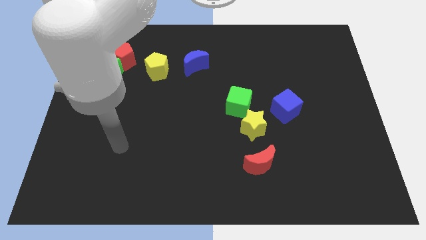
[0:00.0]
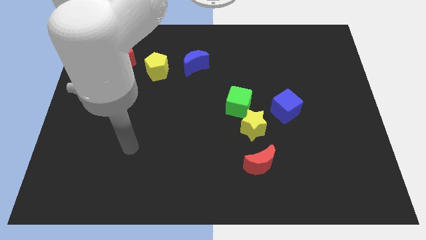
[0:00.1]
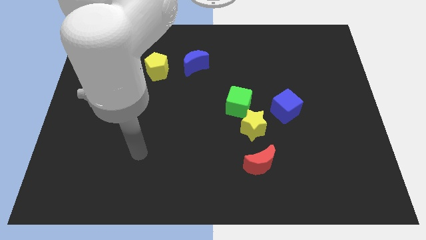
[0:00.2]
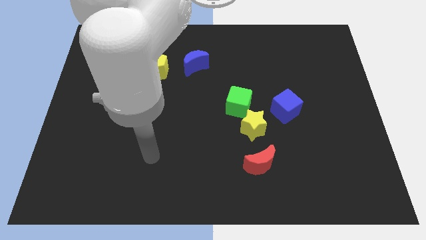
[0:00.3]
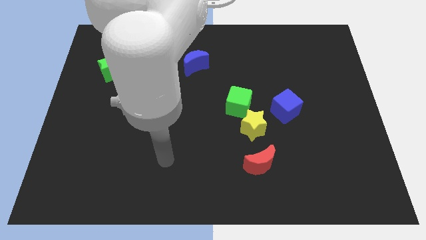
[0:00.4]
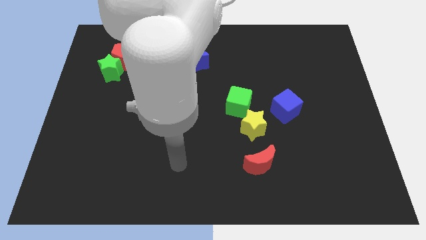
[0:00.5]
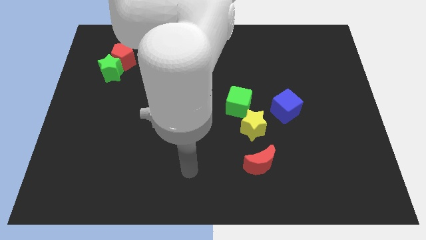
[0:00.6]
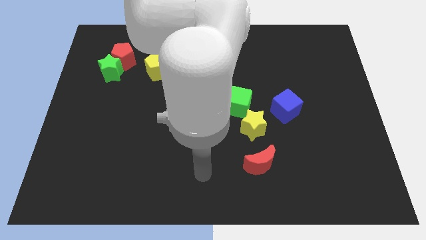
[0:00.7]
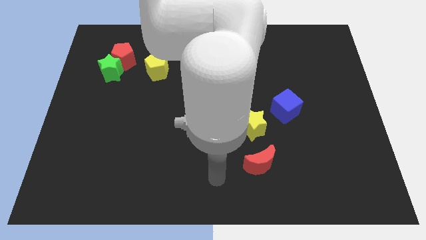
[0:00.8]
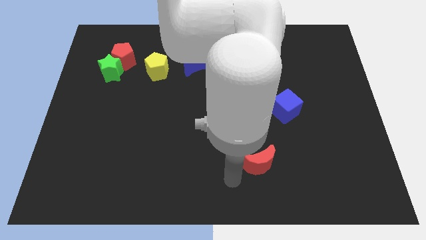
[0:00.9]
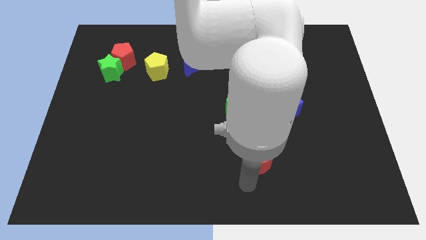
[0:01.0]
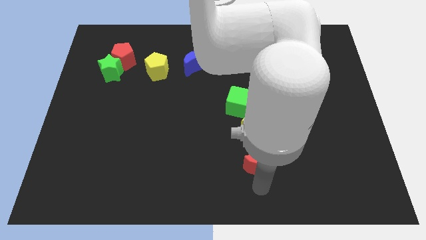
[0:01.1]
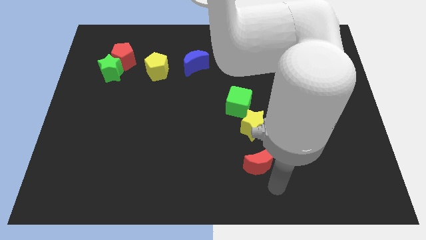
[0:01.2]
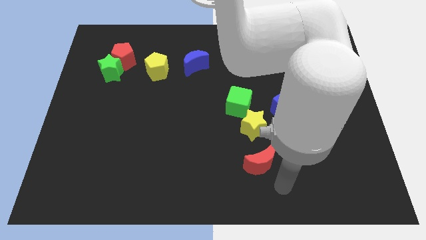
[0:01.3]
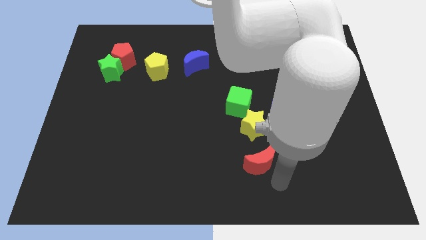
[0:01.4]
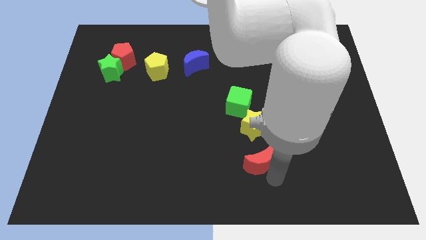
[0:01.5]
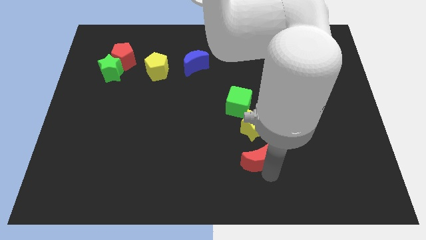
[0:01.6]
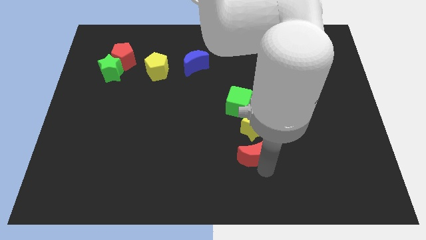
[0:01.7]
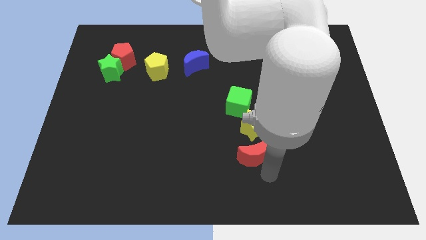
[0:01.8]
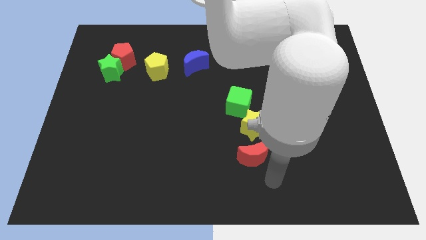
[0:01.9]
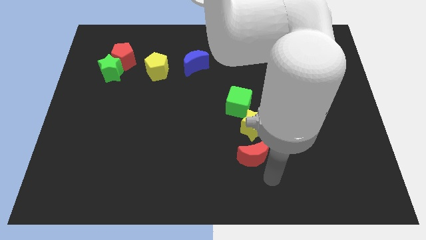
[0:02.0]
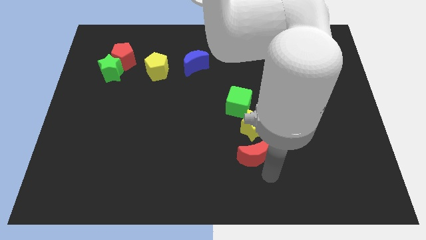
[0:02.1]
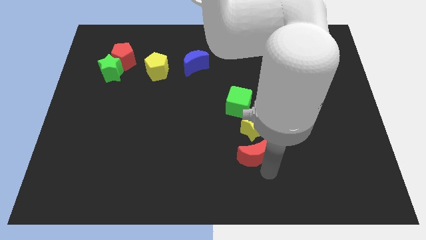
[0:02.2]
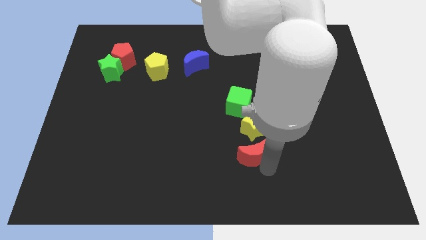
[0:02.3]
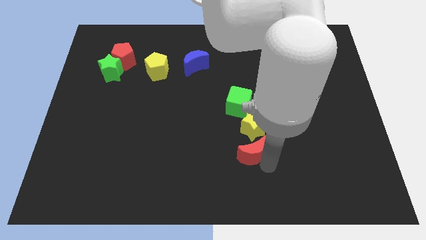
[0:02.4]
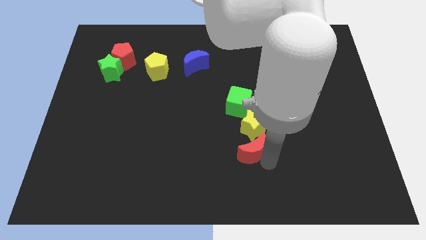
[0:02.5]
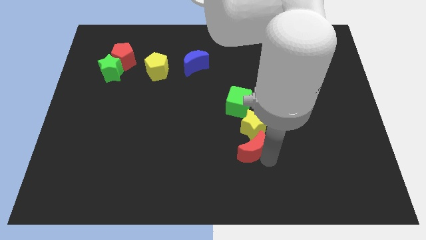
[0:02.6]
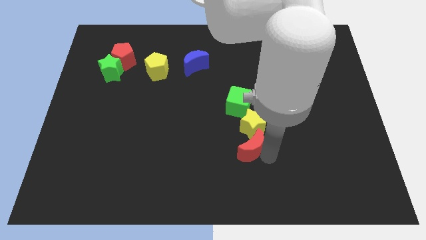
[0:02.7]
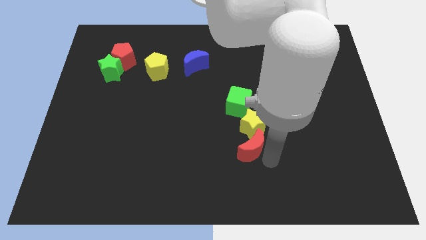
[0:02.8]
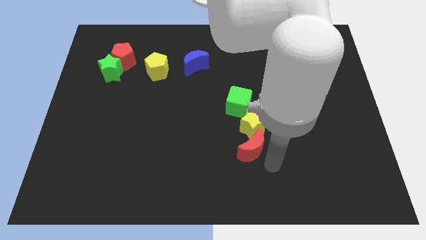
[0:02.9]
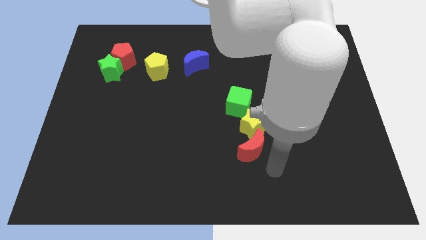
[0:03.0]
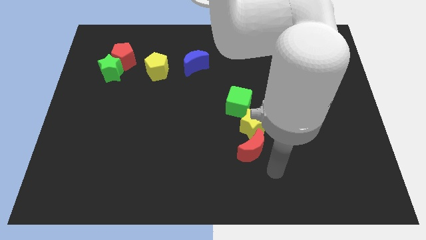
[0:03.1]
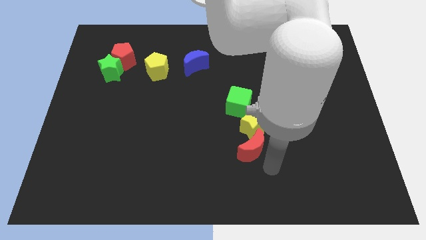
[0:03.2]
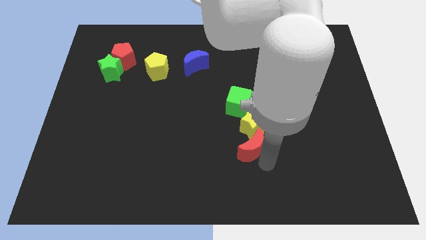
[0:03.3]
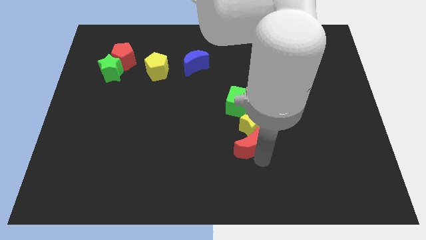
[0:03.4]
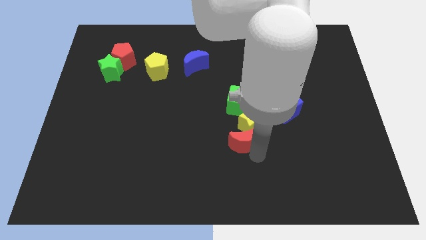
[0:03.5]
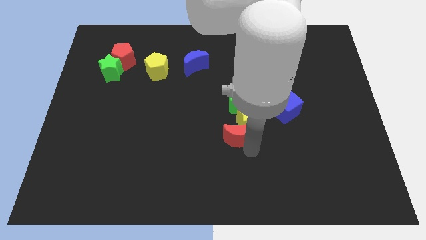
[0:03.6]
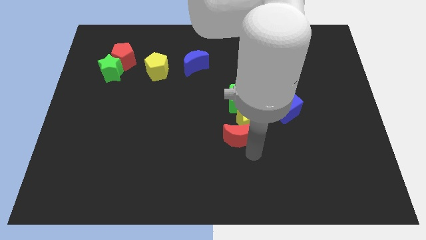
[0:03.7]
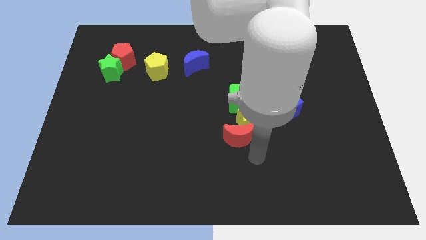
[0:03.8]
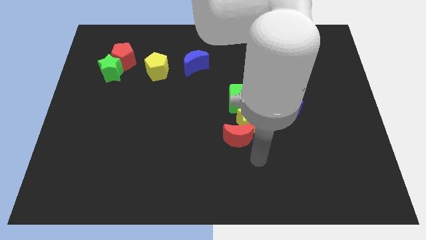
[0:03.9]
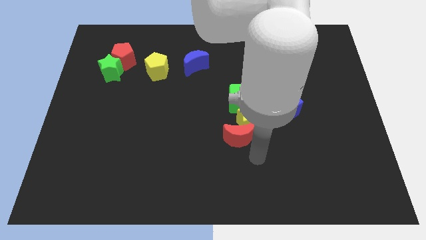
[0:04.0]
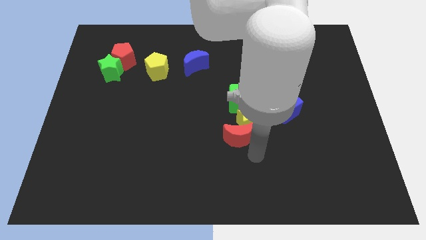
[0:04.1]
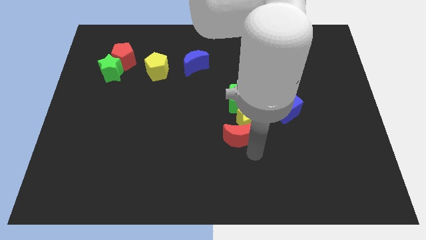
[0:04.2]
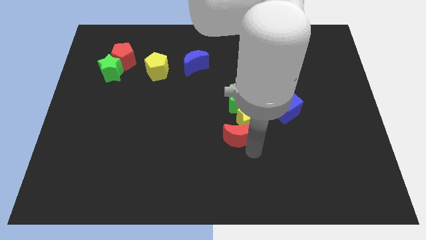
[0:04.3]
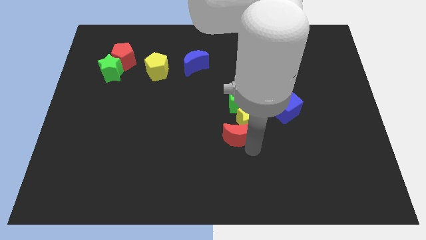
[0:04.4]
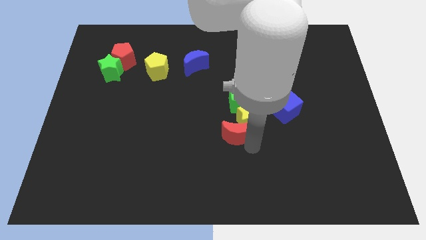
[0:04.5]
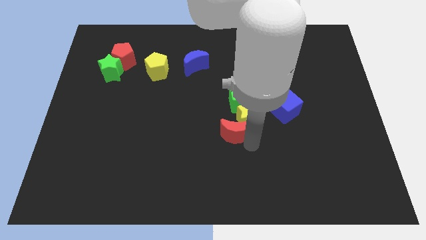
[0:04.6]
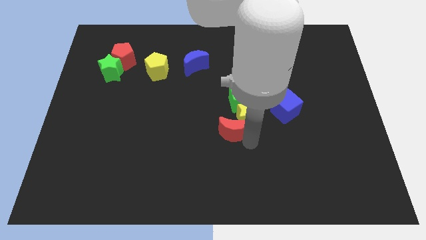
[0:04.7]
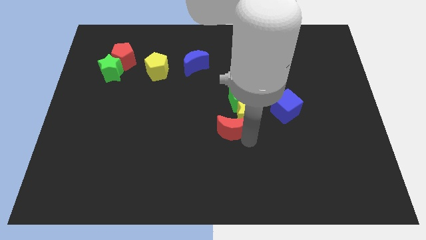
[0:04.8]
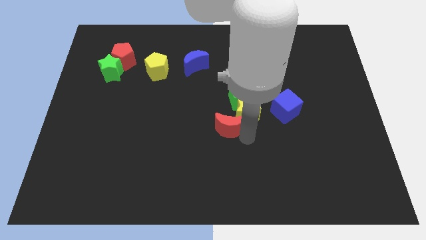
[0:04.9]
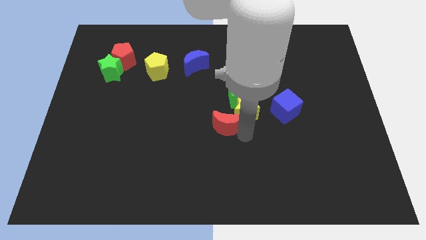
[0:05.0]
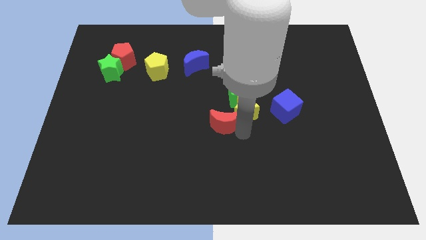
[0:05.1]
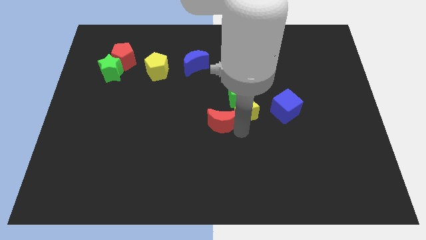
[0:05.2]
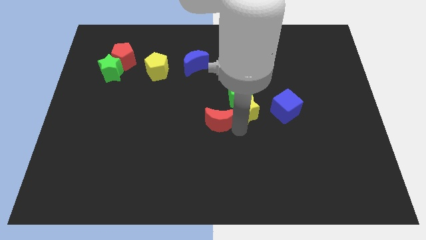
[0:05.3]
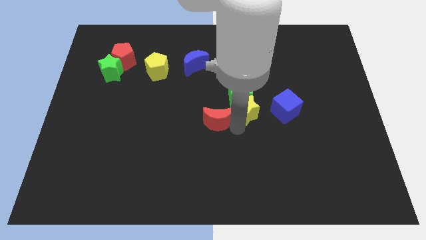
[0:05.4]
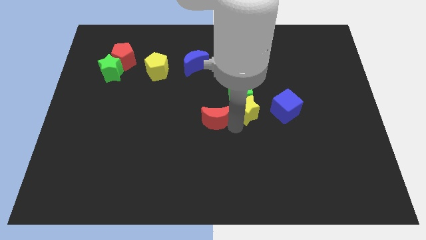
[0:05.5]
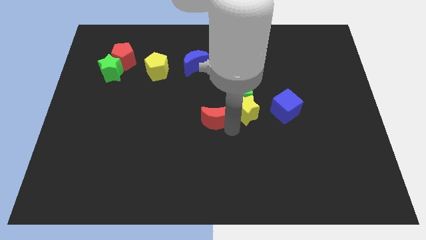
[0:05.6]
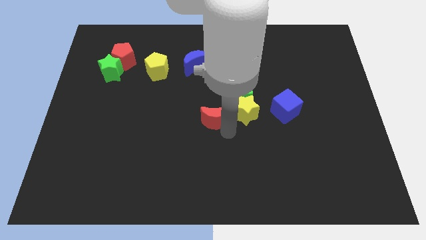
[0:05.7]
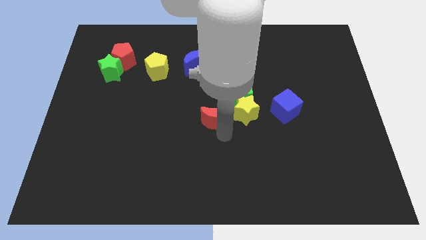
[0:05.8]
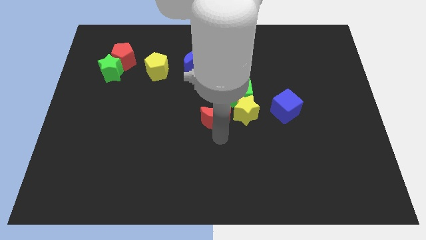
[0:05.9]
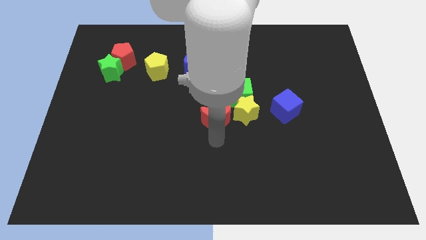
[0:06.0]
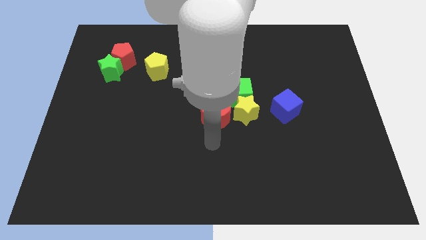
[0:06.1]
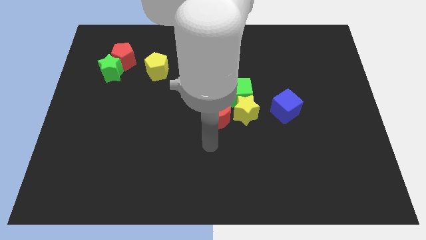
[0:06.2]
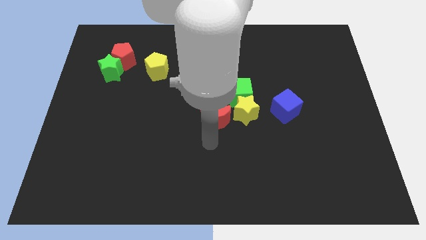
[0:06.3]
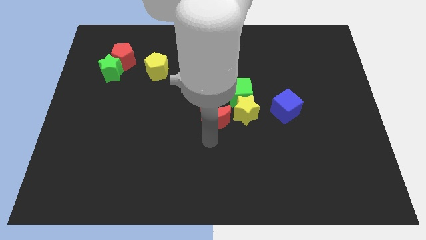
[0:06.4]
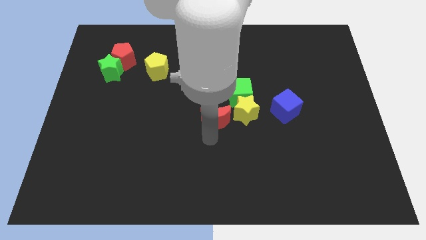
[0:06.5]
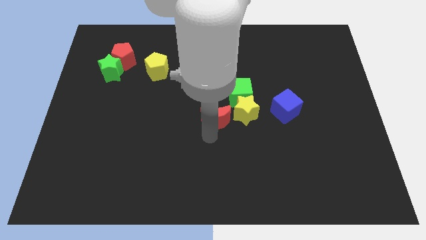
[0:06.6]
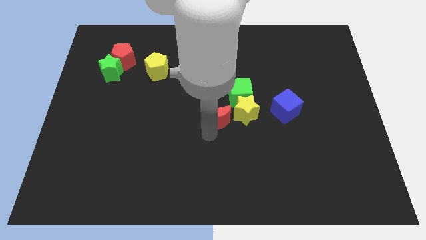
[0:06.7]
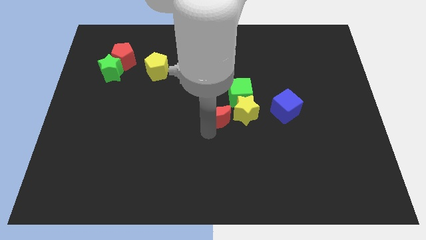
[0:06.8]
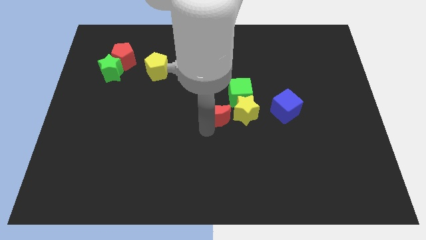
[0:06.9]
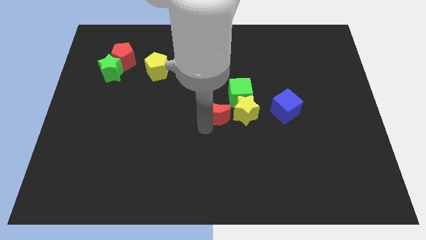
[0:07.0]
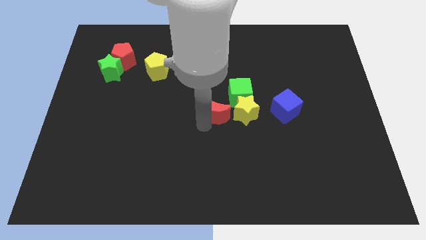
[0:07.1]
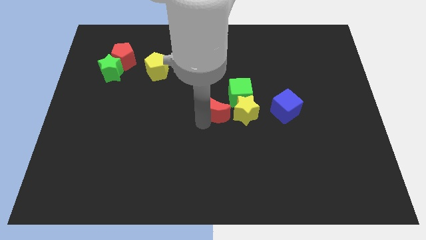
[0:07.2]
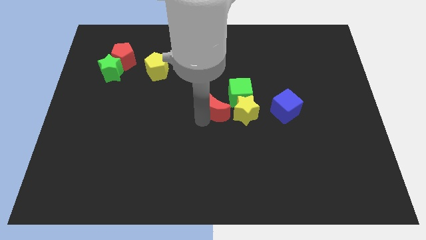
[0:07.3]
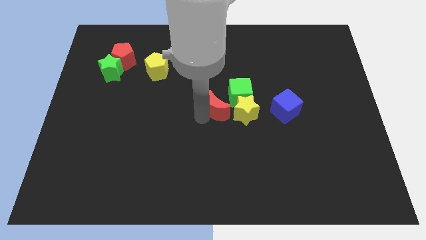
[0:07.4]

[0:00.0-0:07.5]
slide the red moon just left of the blue cube
